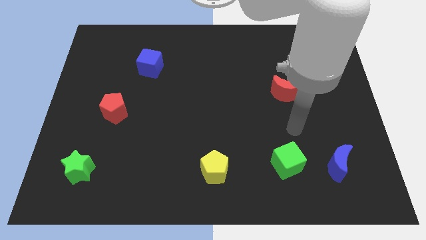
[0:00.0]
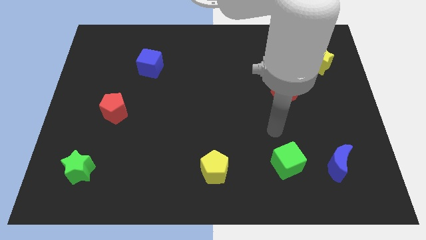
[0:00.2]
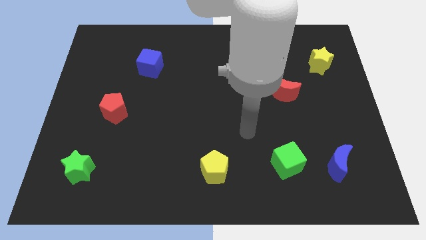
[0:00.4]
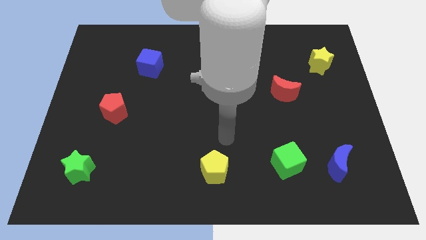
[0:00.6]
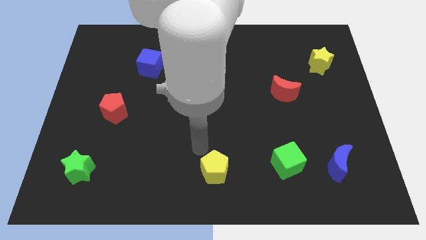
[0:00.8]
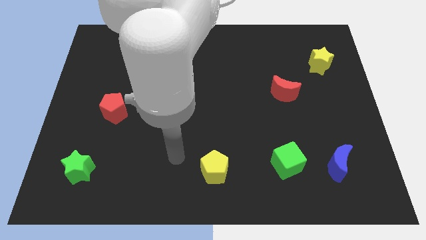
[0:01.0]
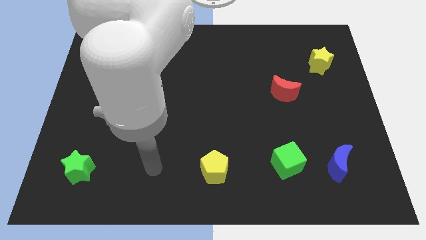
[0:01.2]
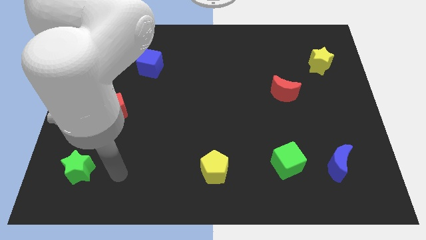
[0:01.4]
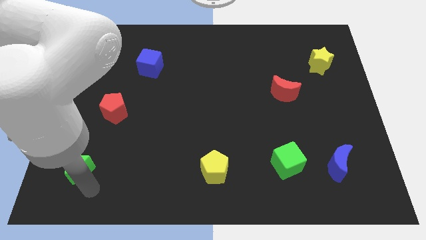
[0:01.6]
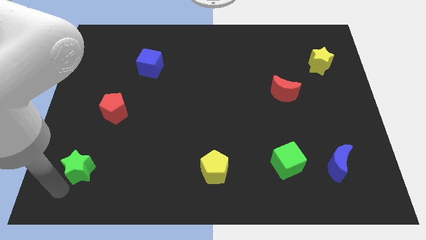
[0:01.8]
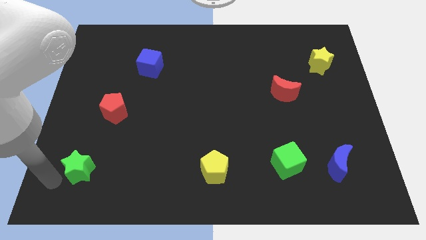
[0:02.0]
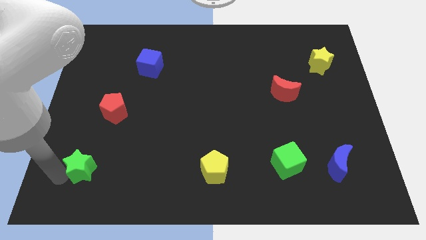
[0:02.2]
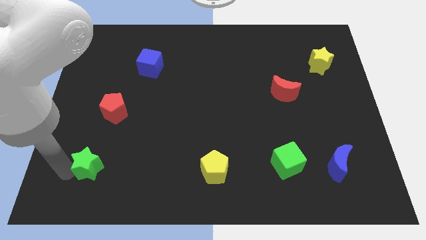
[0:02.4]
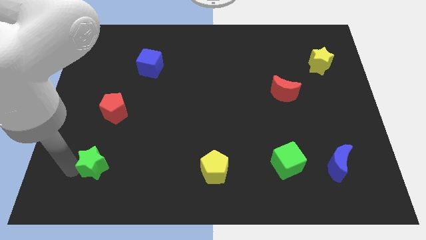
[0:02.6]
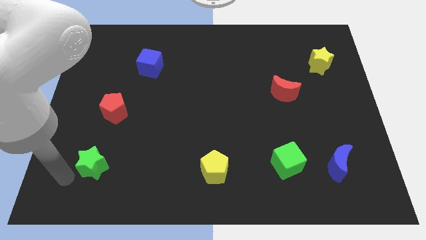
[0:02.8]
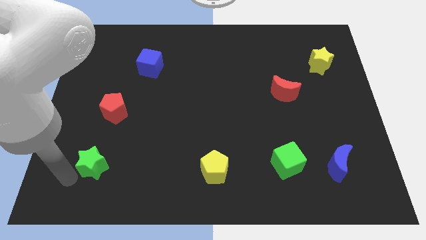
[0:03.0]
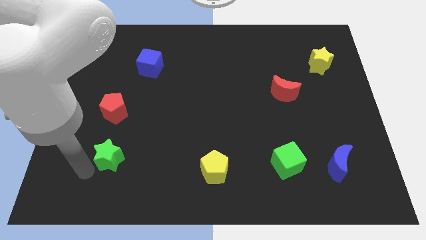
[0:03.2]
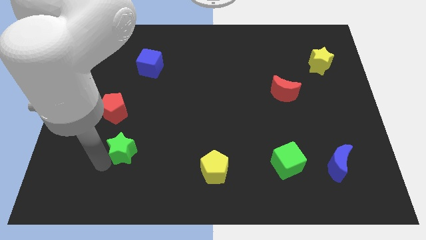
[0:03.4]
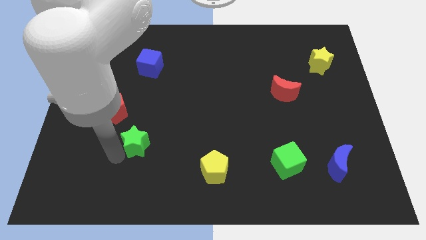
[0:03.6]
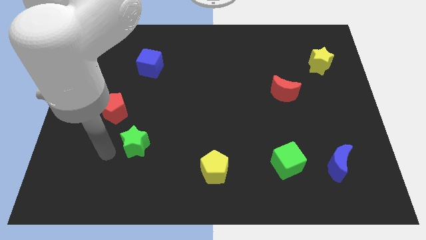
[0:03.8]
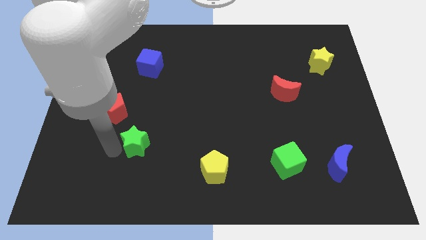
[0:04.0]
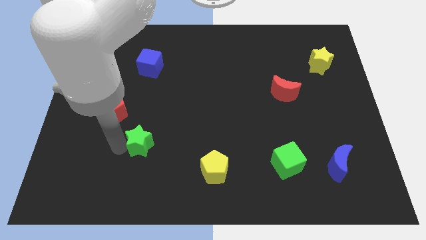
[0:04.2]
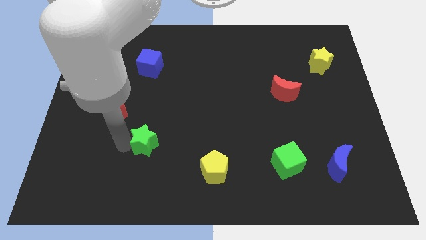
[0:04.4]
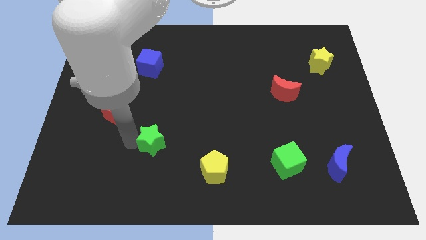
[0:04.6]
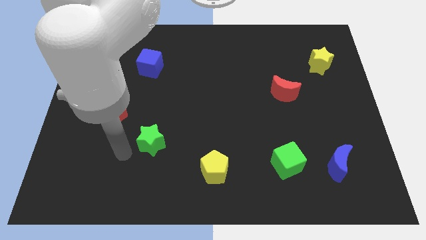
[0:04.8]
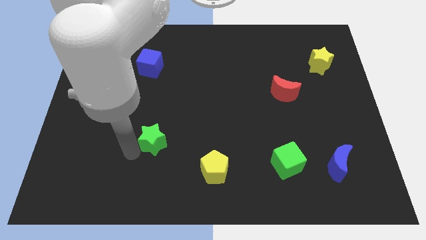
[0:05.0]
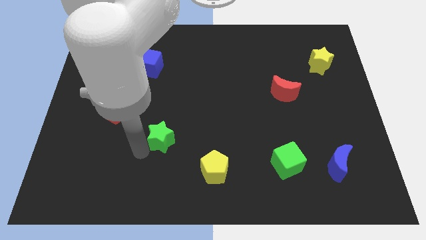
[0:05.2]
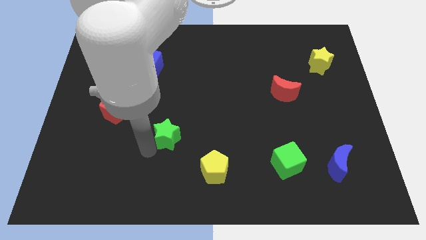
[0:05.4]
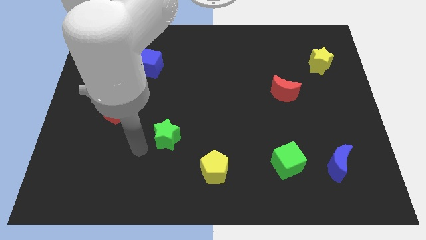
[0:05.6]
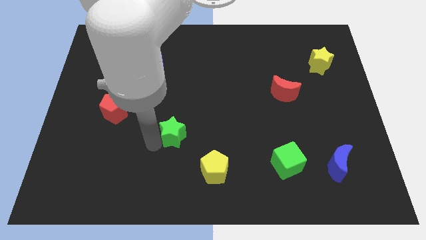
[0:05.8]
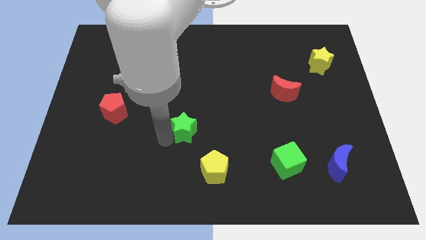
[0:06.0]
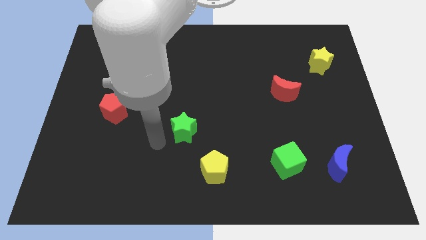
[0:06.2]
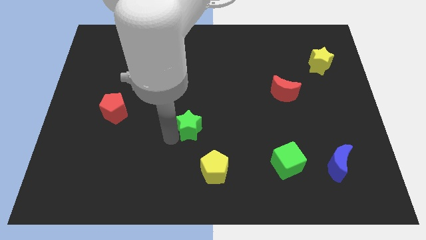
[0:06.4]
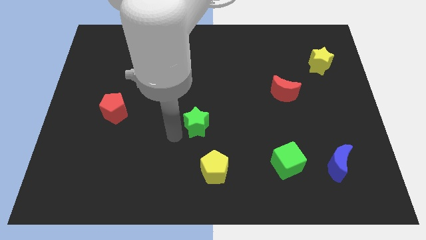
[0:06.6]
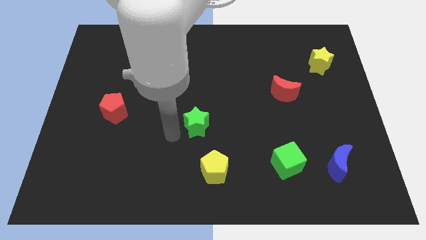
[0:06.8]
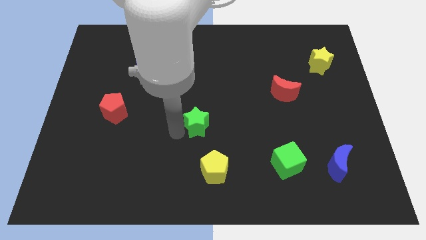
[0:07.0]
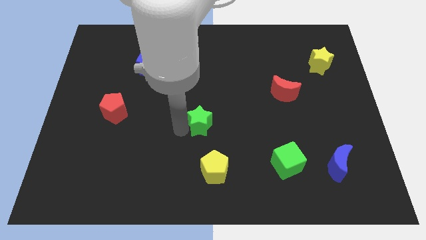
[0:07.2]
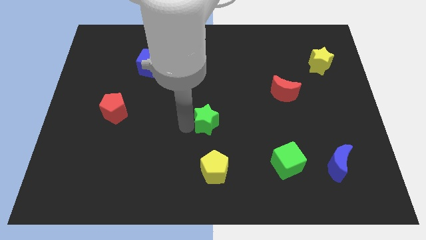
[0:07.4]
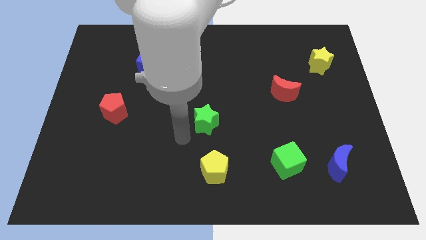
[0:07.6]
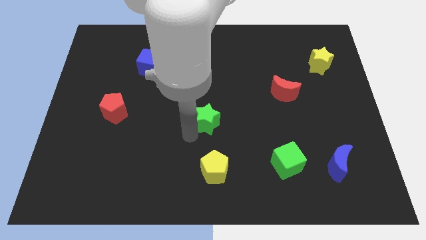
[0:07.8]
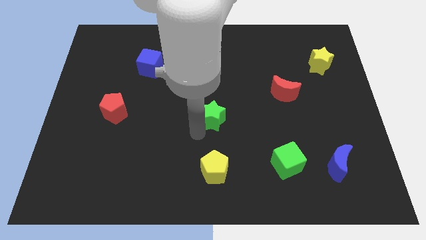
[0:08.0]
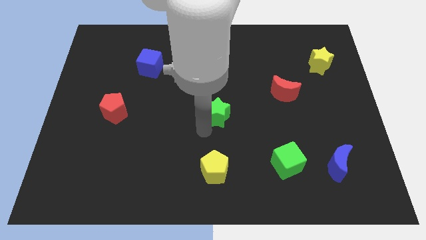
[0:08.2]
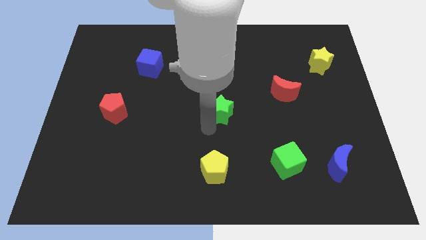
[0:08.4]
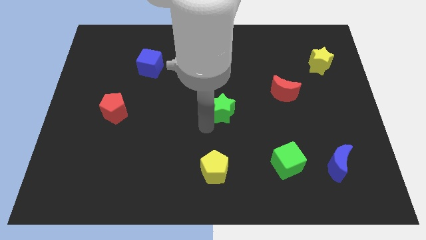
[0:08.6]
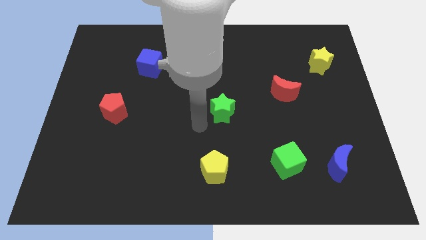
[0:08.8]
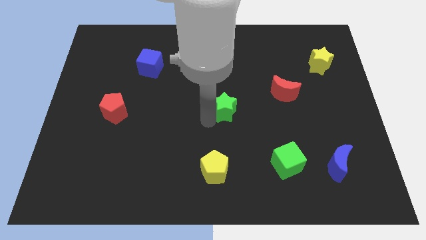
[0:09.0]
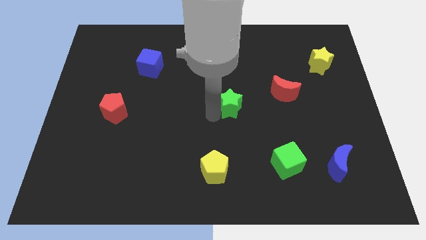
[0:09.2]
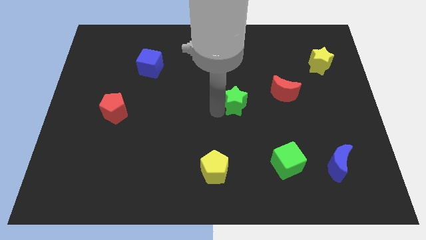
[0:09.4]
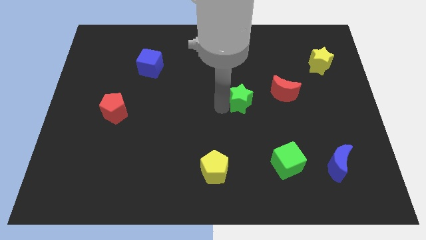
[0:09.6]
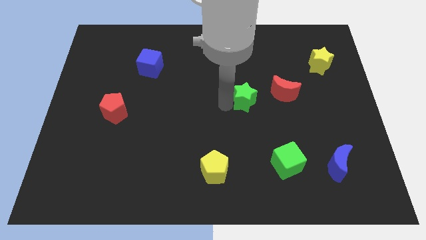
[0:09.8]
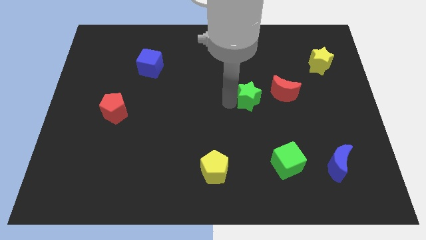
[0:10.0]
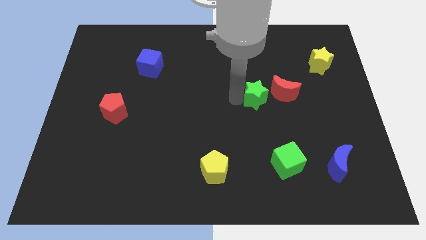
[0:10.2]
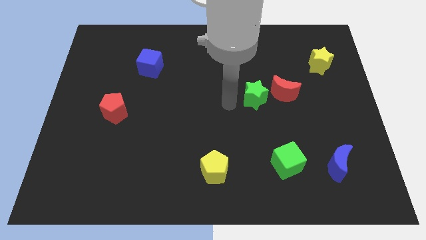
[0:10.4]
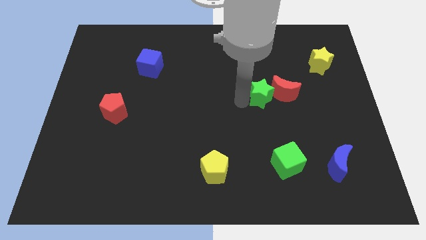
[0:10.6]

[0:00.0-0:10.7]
put the green star close to the red moon

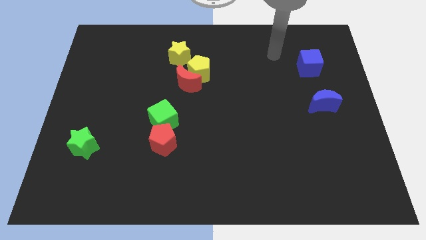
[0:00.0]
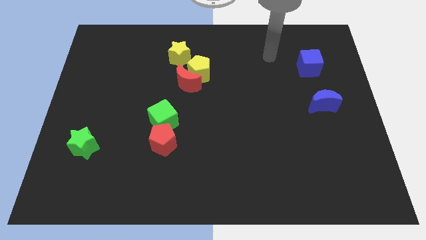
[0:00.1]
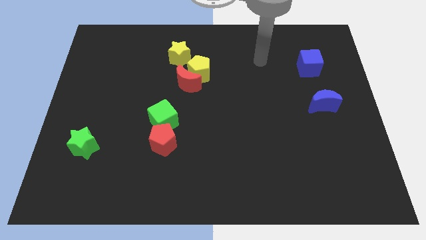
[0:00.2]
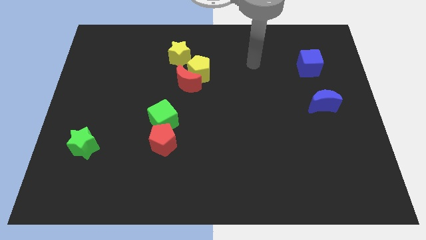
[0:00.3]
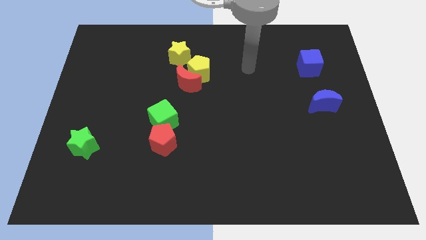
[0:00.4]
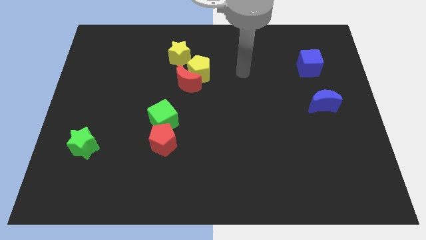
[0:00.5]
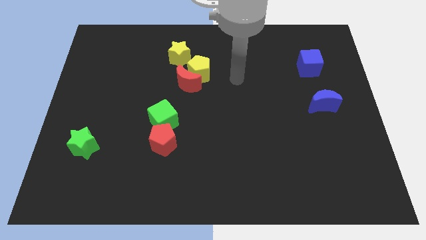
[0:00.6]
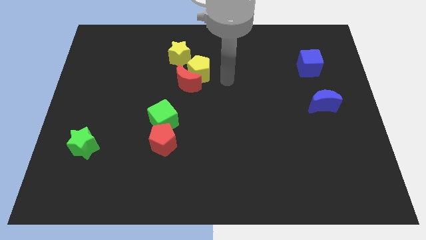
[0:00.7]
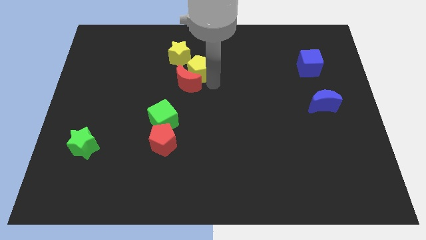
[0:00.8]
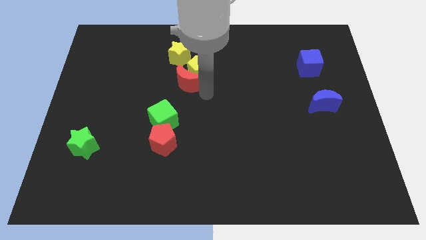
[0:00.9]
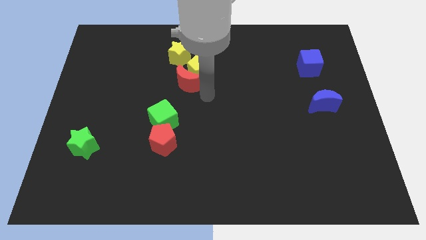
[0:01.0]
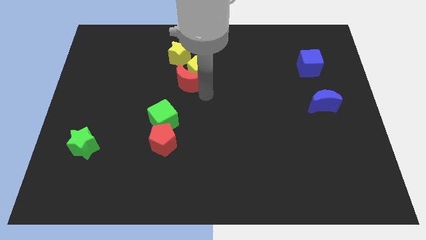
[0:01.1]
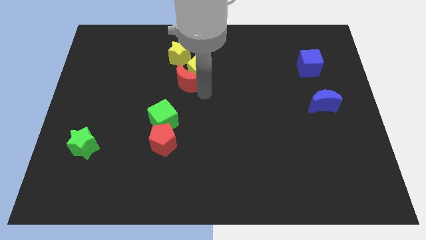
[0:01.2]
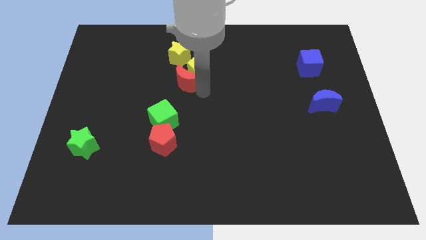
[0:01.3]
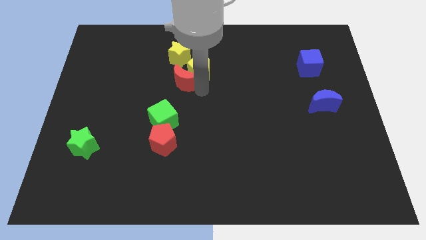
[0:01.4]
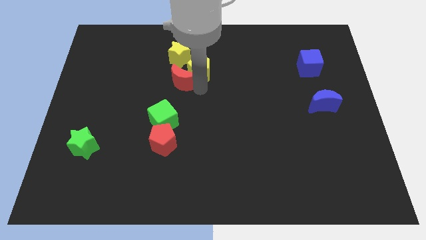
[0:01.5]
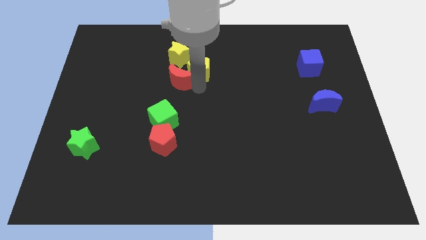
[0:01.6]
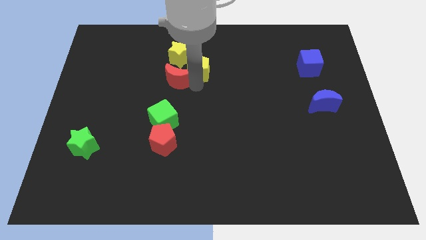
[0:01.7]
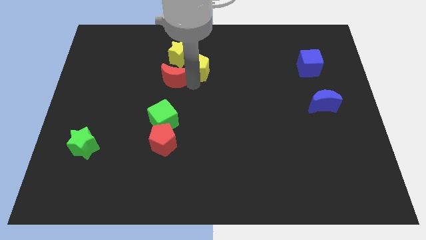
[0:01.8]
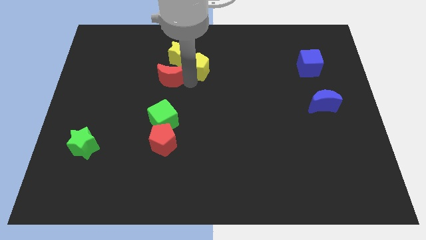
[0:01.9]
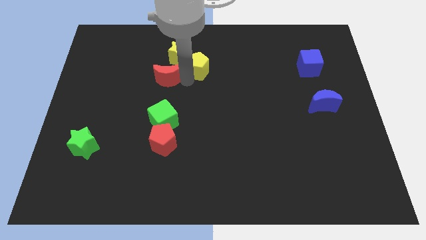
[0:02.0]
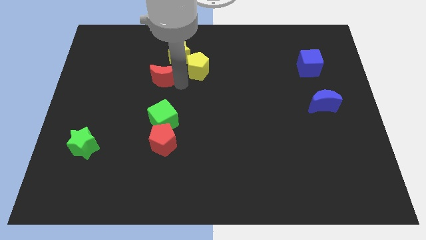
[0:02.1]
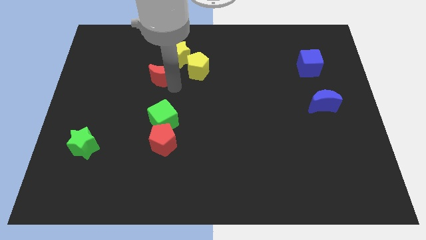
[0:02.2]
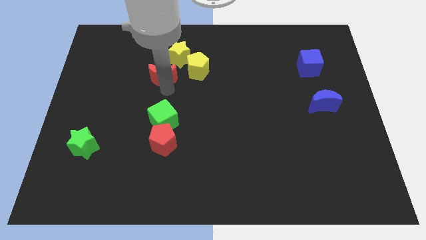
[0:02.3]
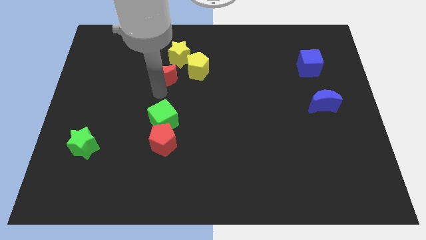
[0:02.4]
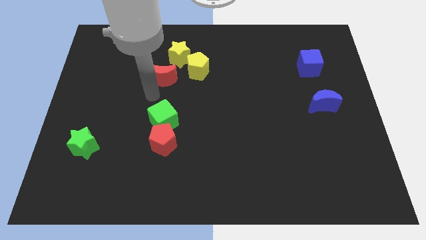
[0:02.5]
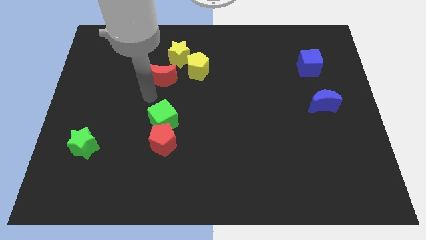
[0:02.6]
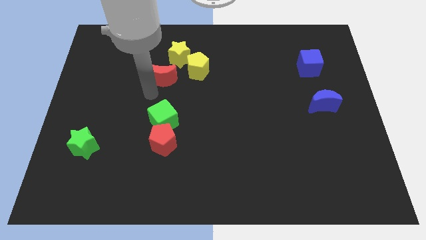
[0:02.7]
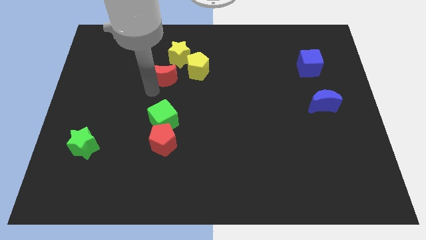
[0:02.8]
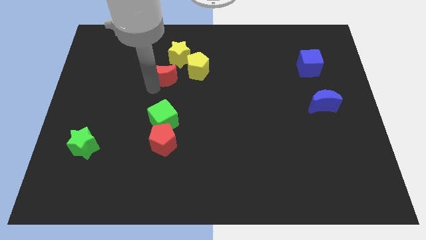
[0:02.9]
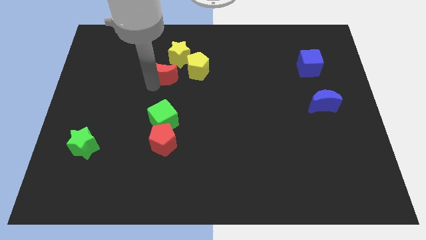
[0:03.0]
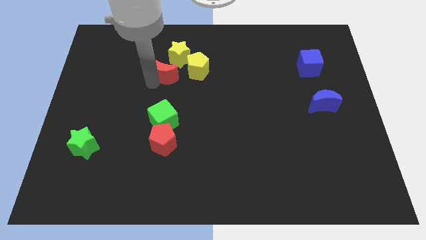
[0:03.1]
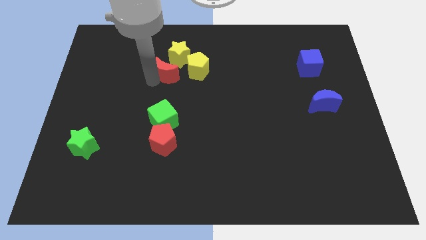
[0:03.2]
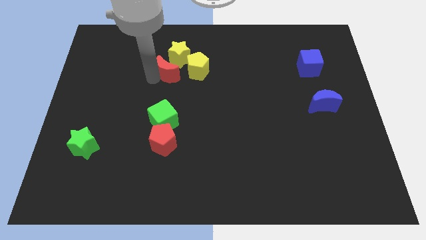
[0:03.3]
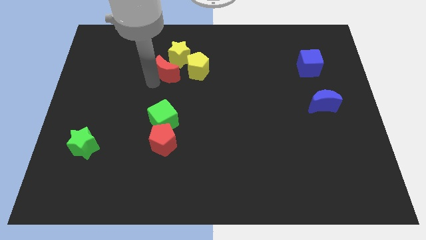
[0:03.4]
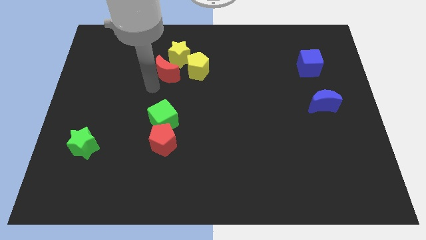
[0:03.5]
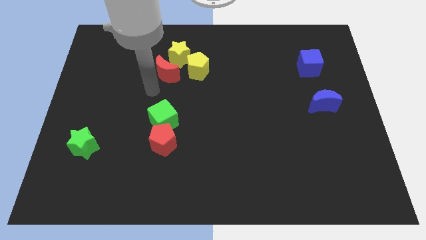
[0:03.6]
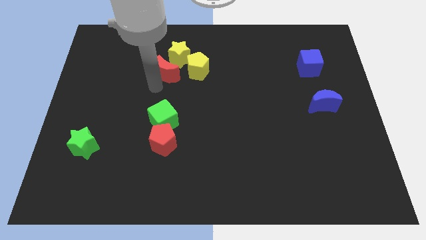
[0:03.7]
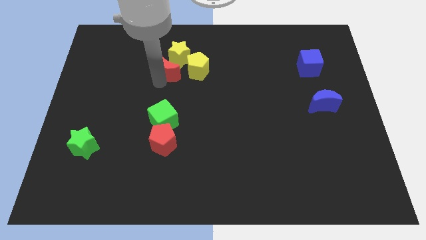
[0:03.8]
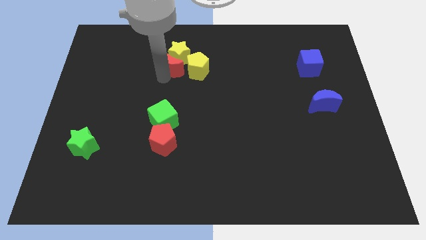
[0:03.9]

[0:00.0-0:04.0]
slide the red moon to the yellow star
